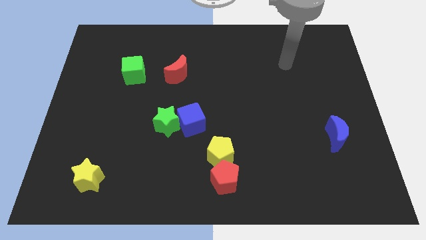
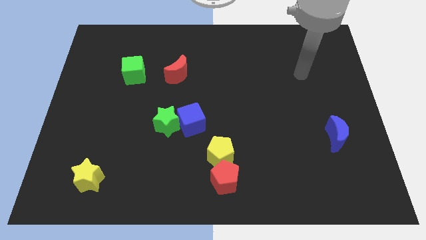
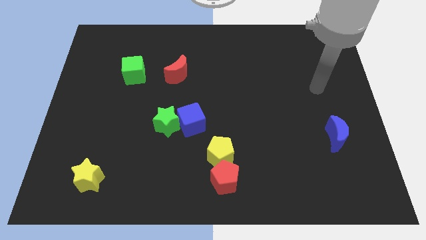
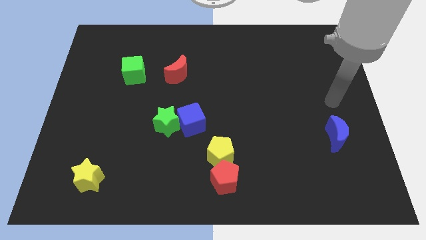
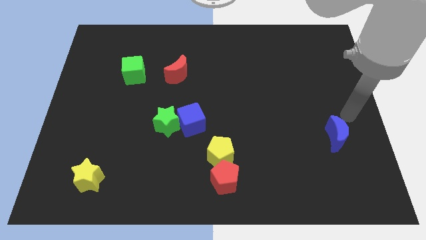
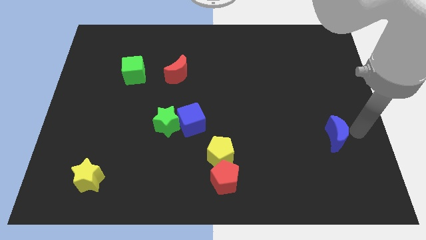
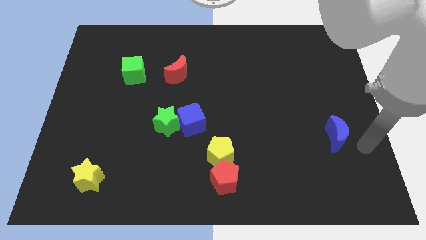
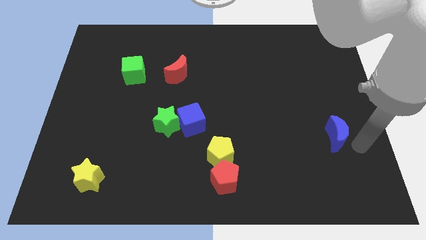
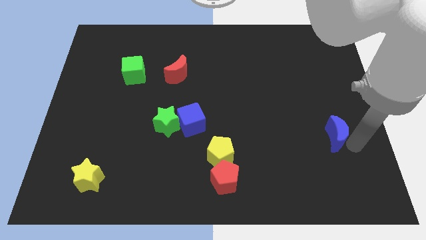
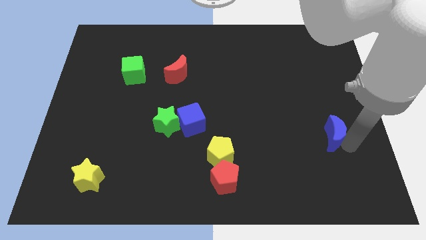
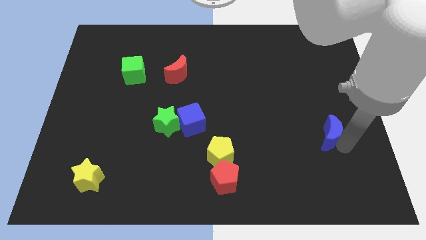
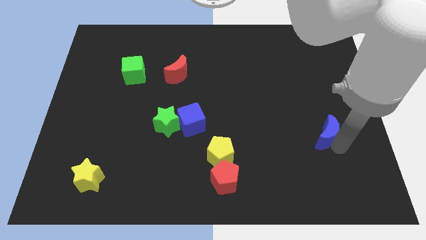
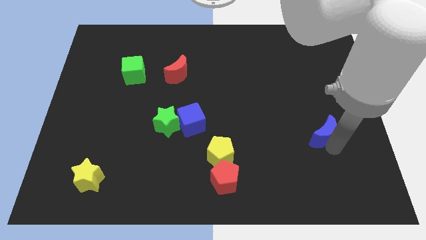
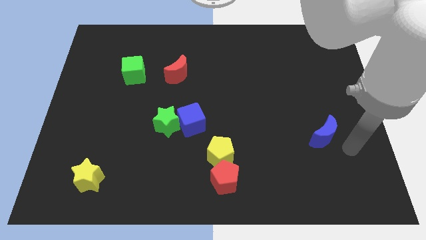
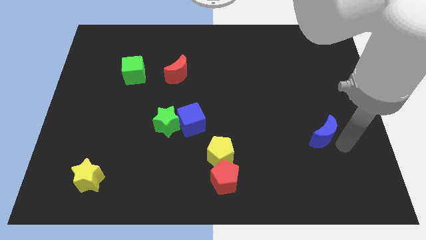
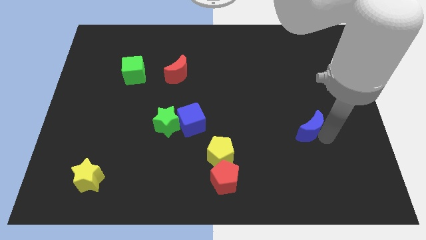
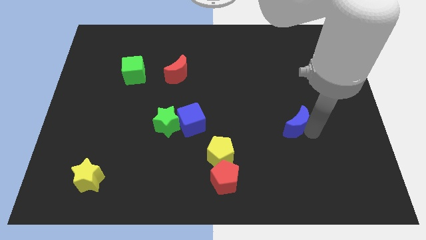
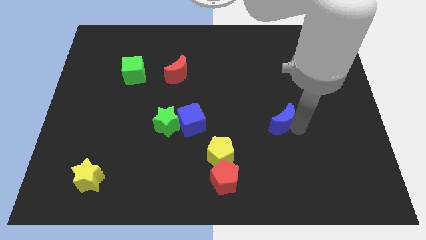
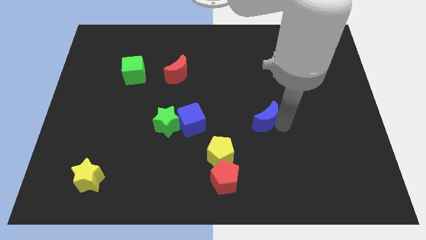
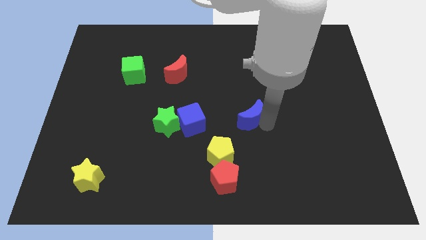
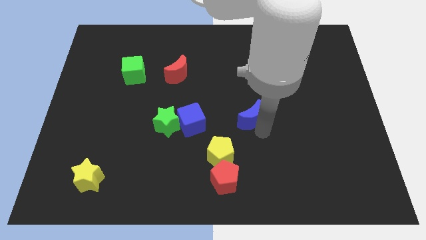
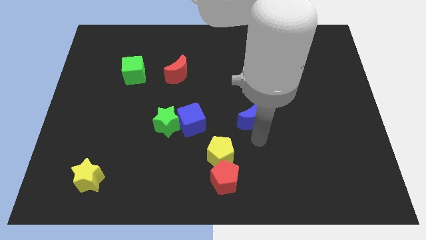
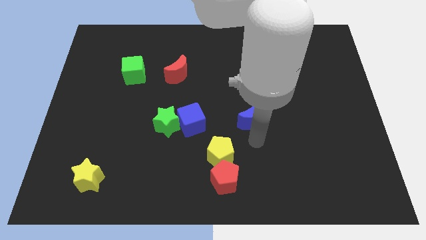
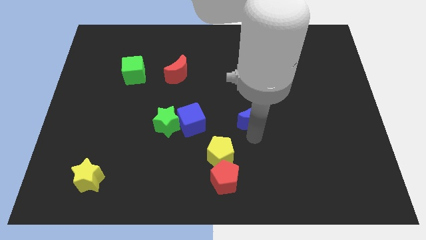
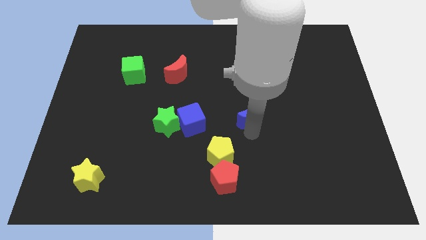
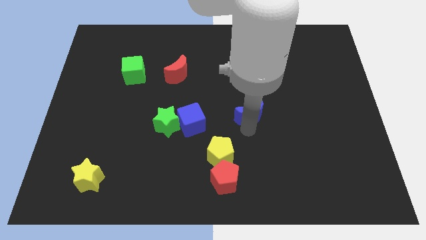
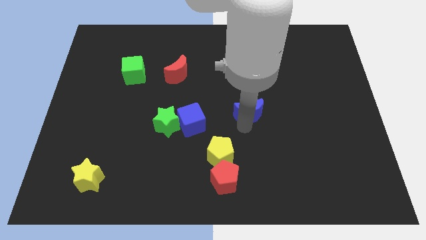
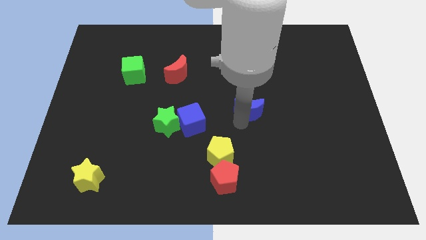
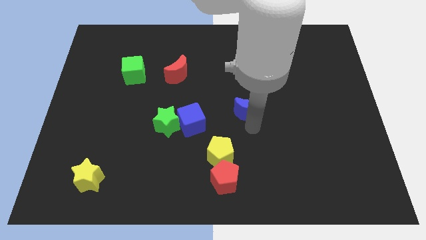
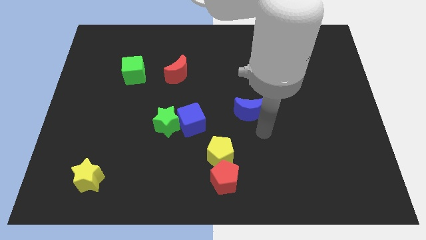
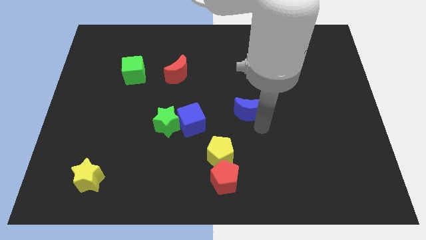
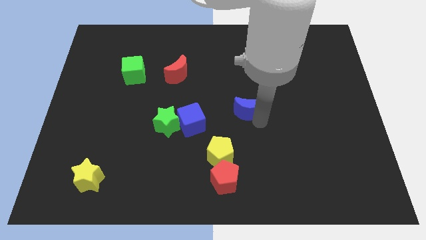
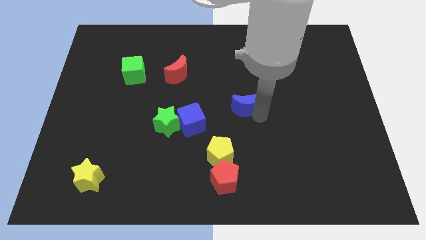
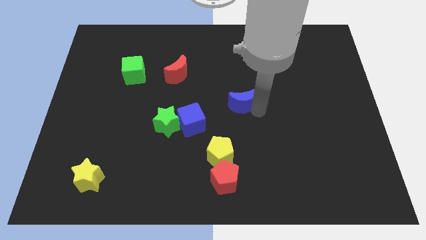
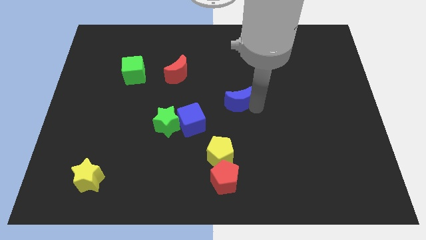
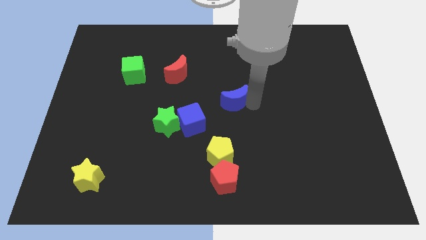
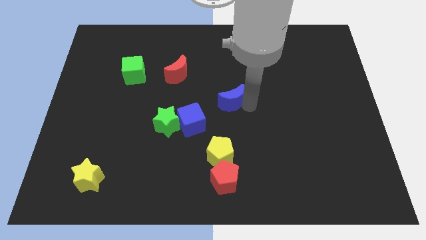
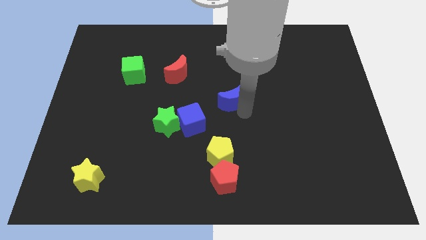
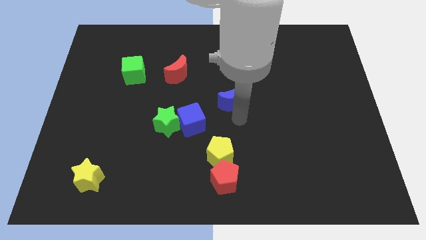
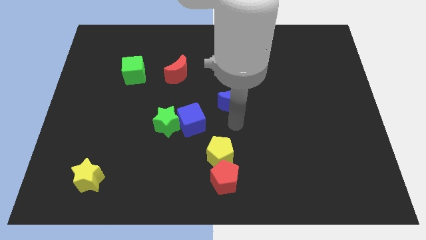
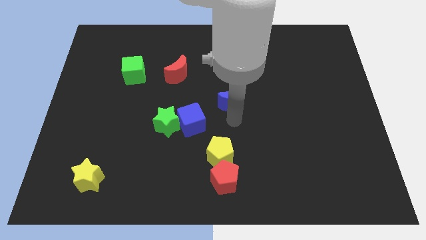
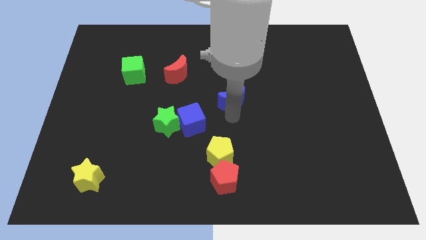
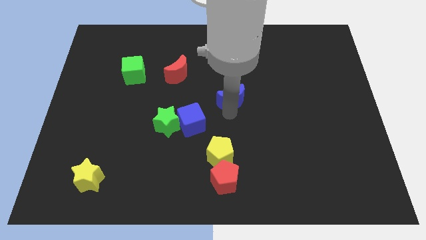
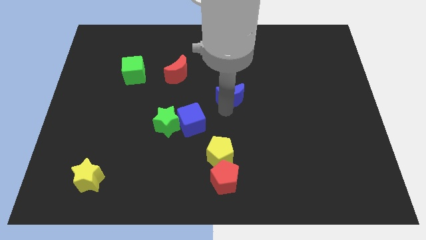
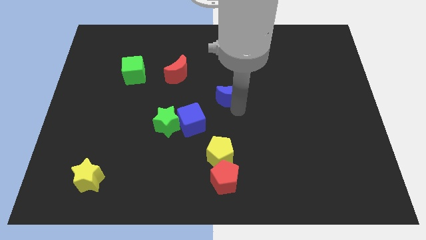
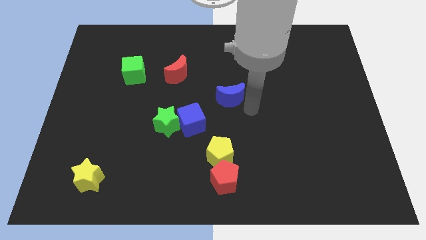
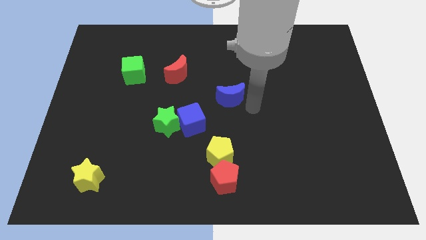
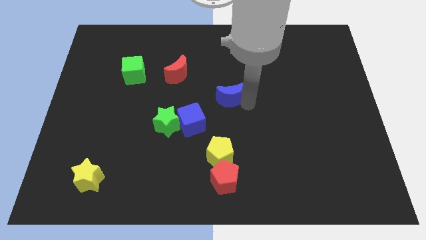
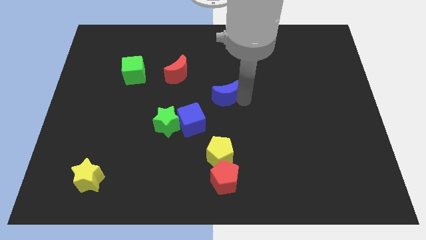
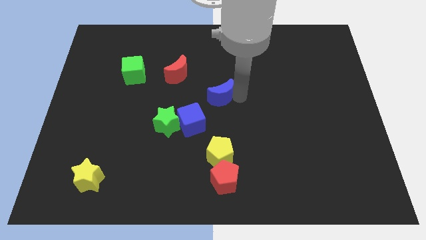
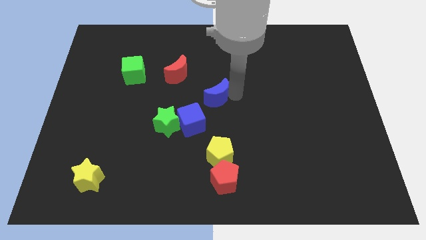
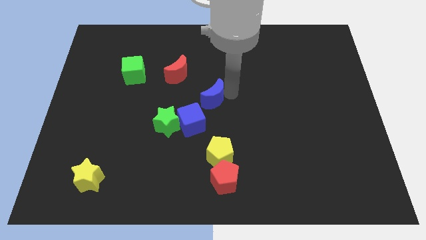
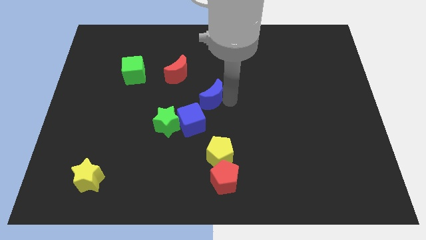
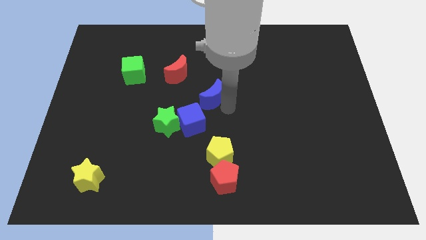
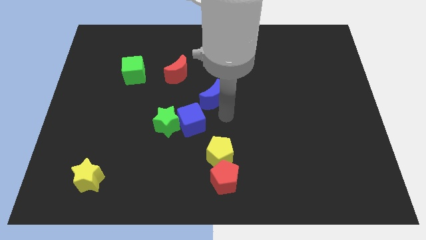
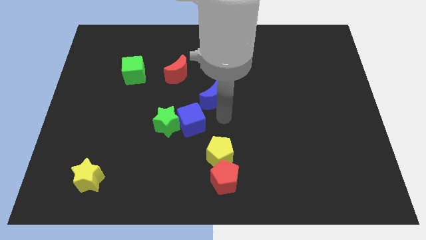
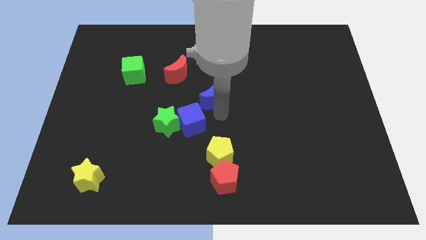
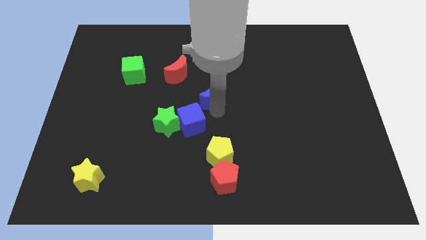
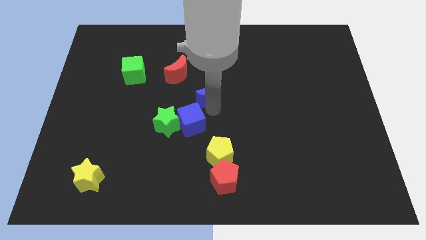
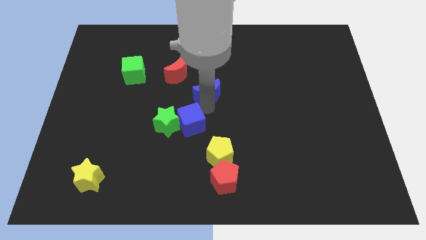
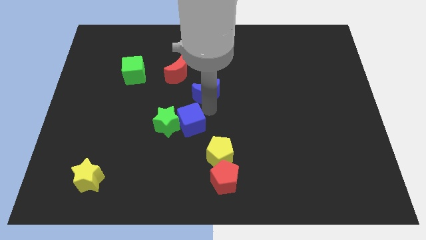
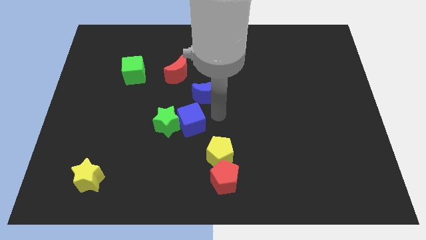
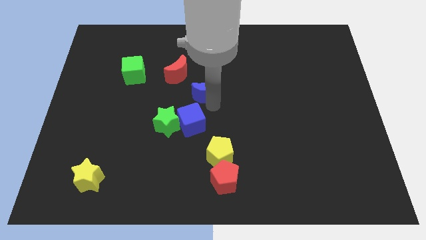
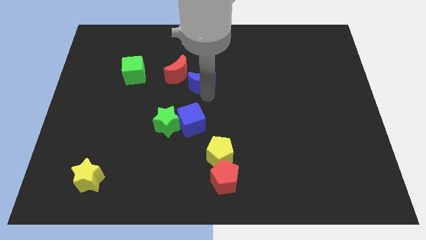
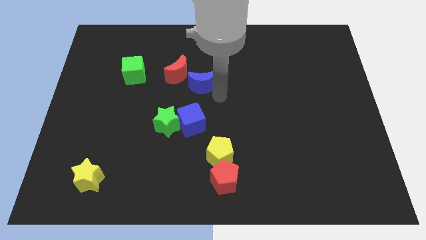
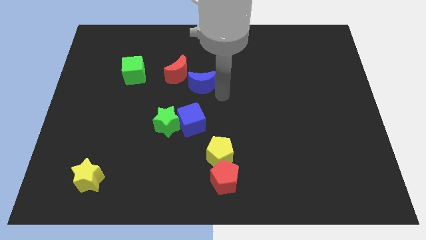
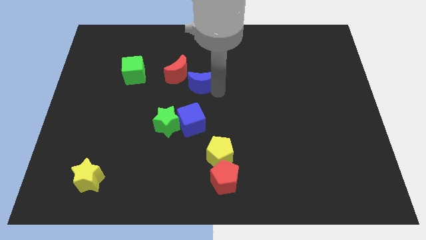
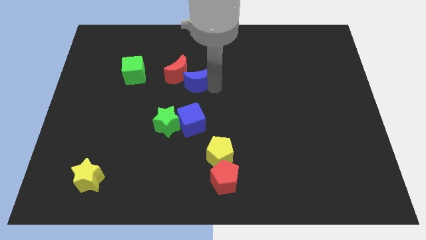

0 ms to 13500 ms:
move the blue moon next to the red moon

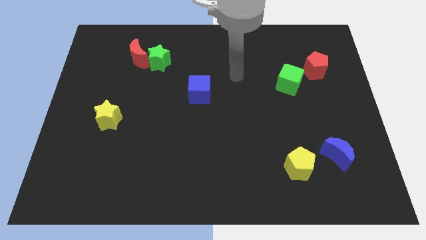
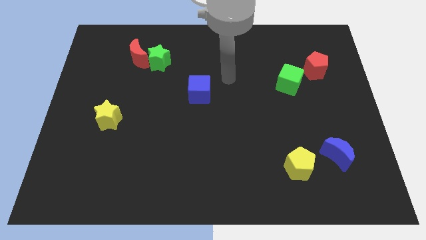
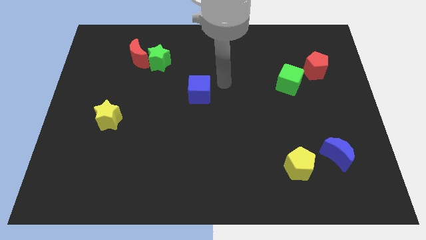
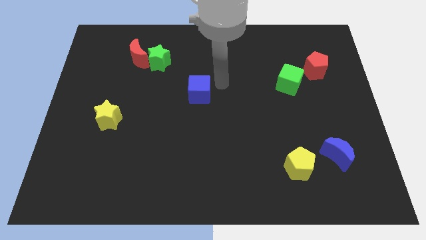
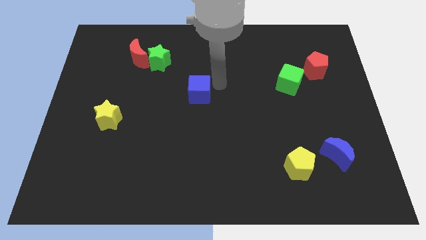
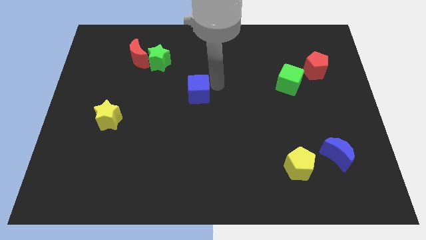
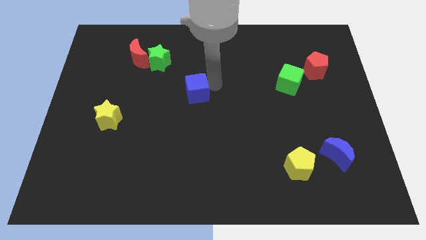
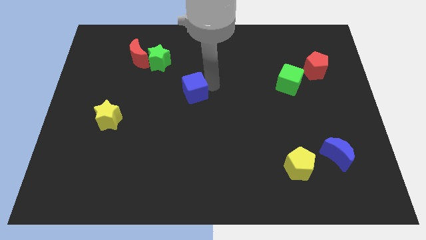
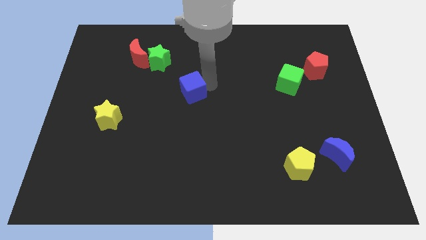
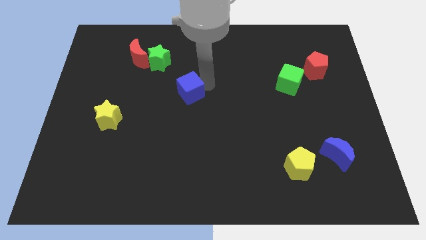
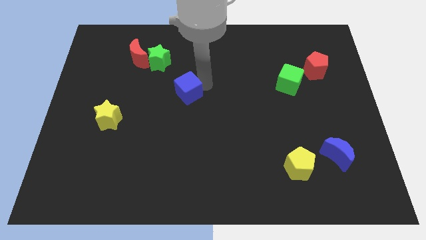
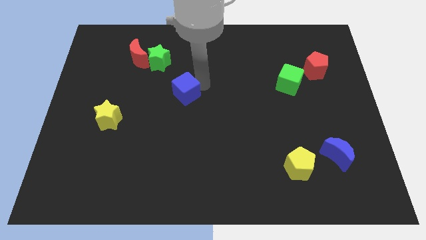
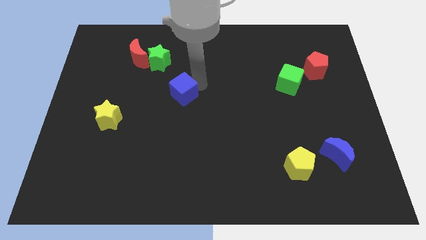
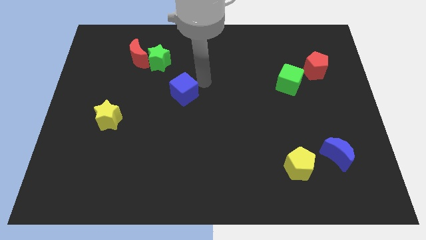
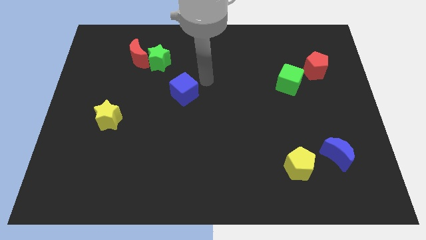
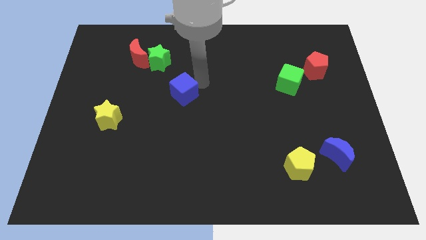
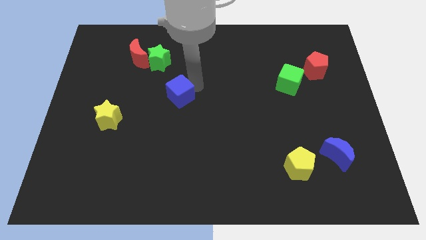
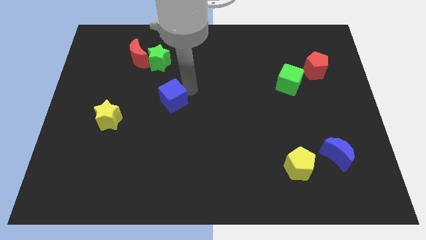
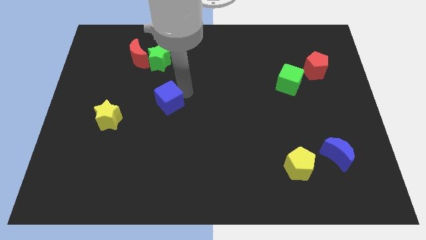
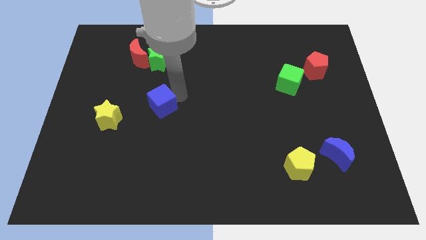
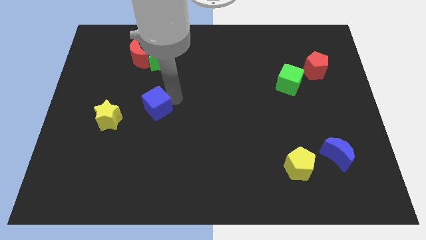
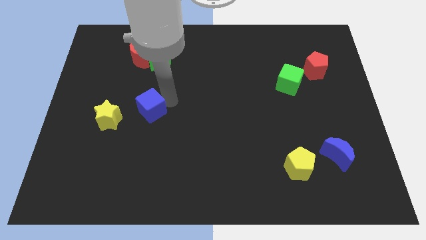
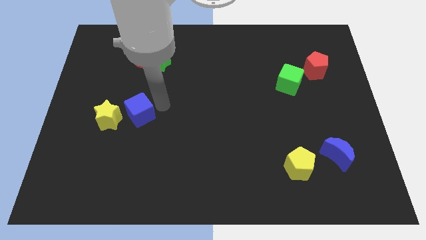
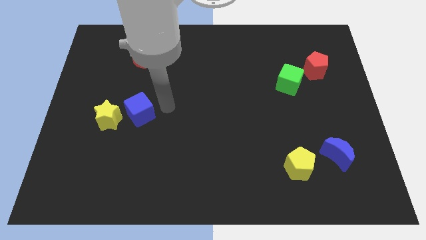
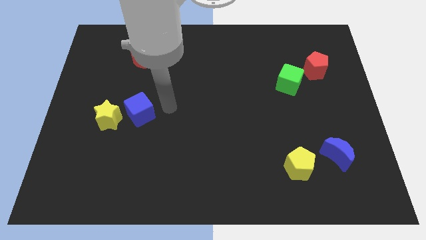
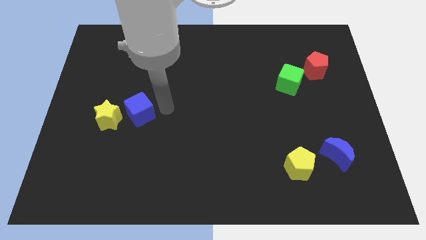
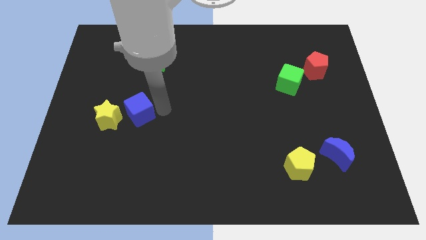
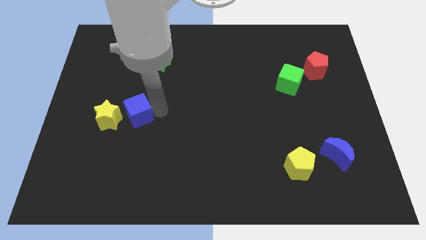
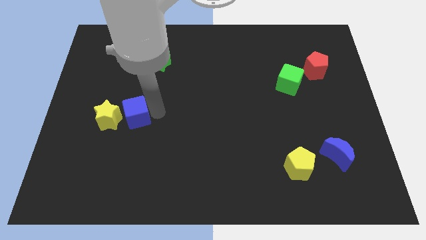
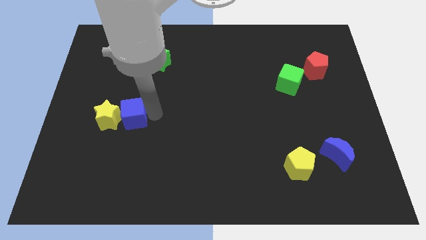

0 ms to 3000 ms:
move the blue cube next to the yellow star
